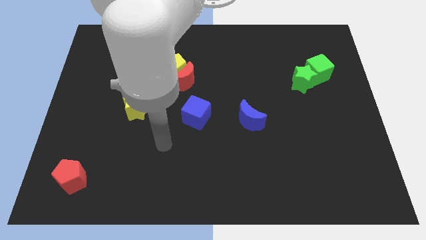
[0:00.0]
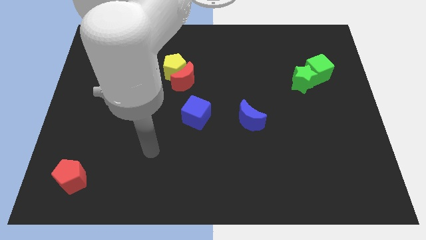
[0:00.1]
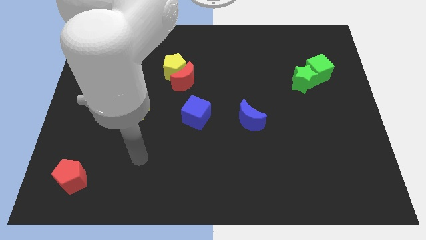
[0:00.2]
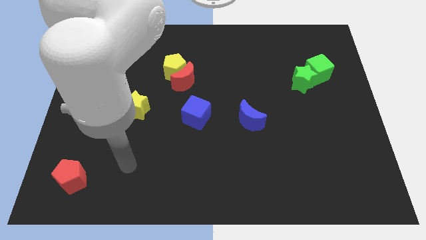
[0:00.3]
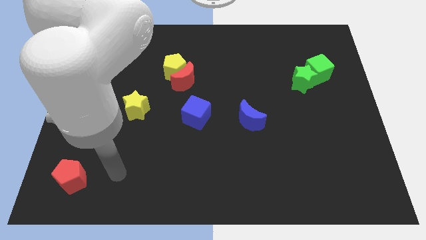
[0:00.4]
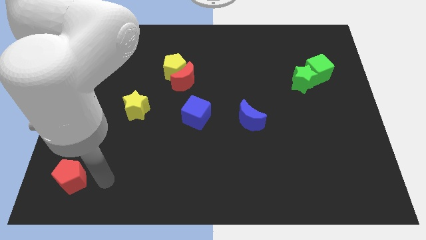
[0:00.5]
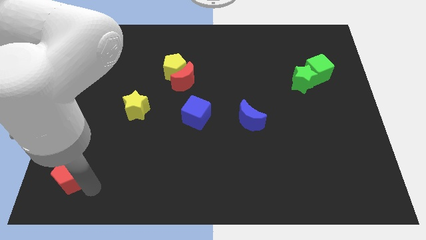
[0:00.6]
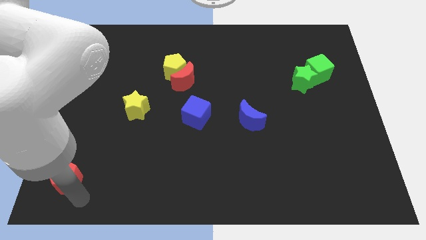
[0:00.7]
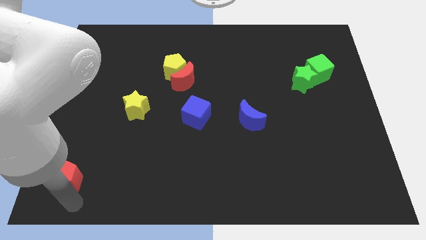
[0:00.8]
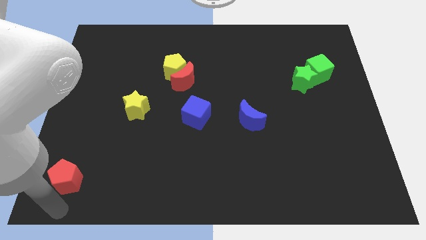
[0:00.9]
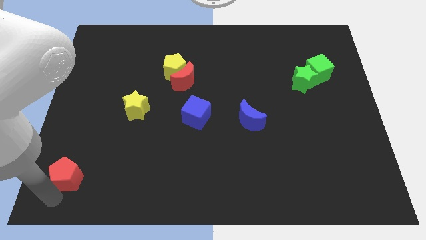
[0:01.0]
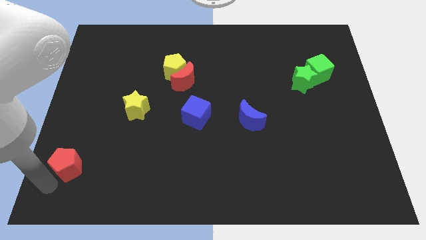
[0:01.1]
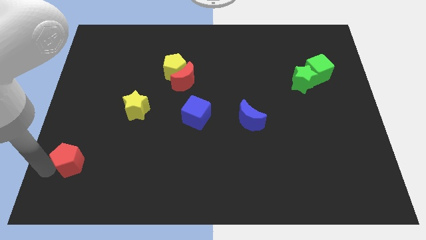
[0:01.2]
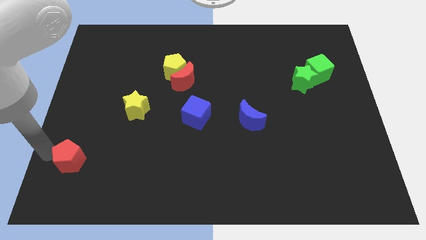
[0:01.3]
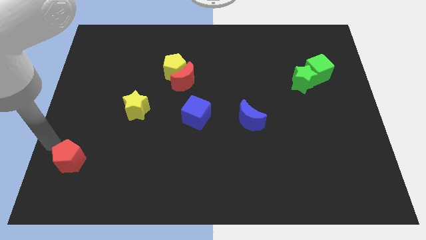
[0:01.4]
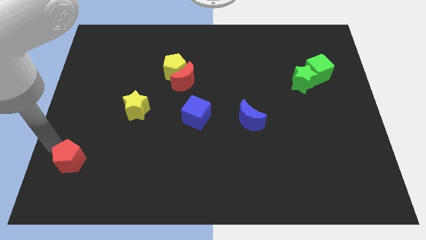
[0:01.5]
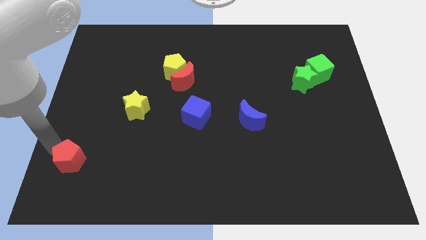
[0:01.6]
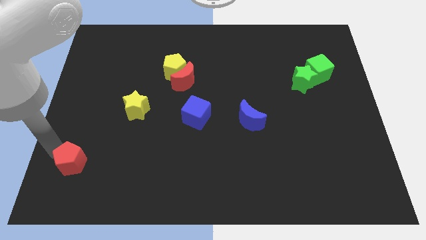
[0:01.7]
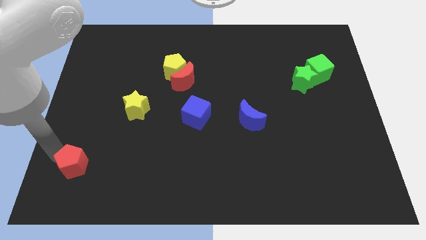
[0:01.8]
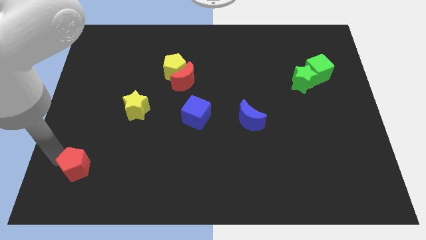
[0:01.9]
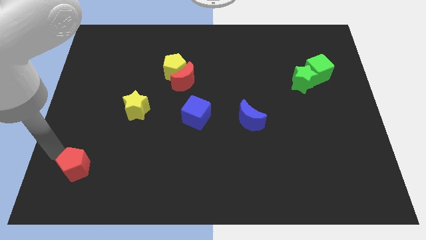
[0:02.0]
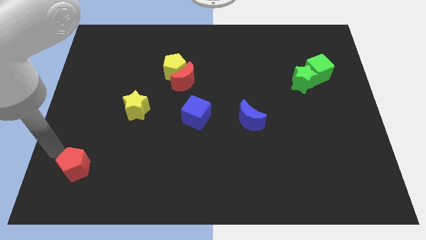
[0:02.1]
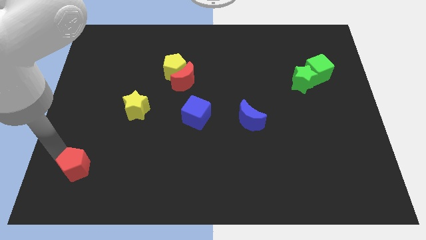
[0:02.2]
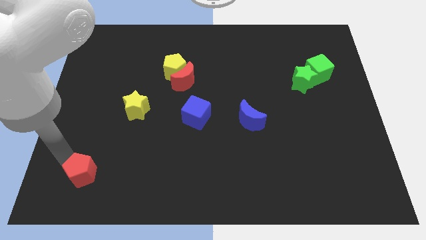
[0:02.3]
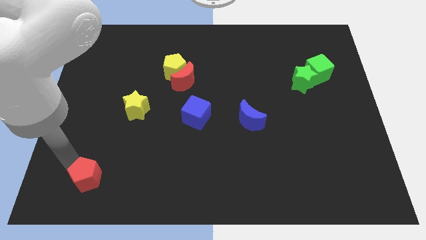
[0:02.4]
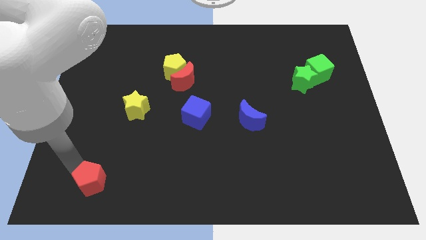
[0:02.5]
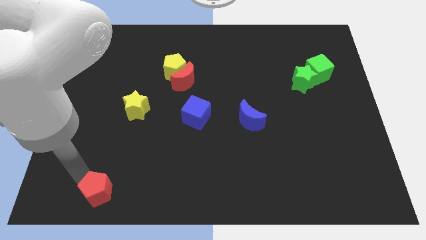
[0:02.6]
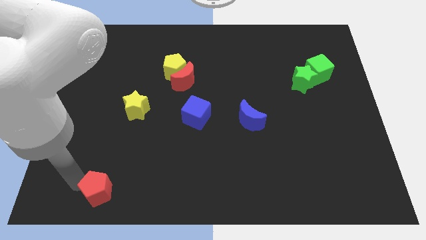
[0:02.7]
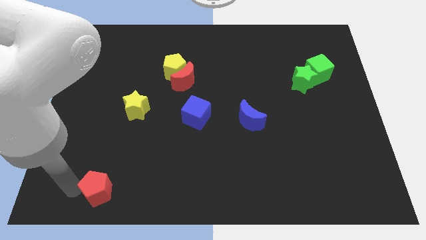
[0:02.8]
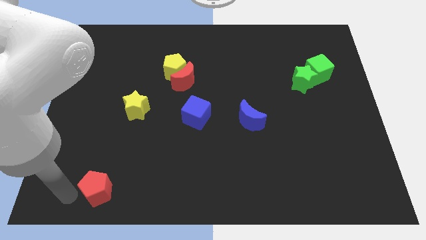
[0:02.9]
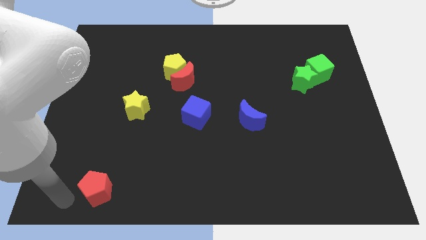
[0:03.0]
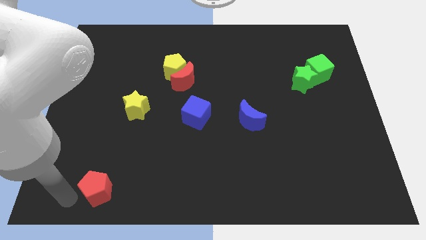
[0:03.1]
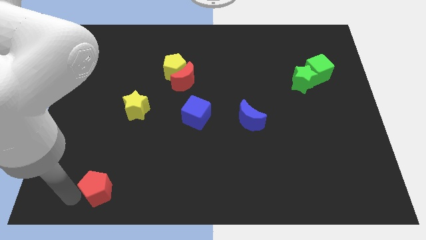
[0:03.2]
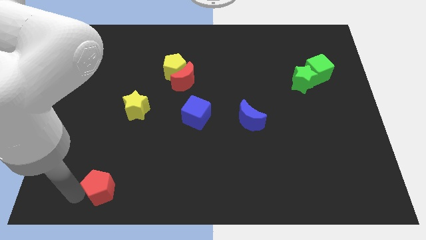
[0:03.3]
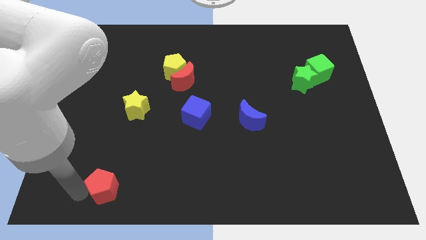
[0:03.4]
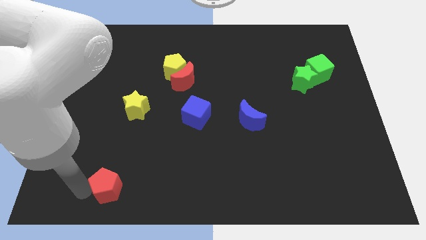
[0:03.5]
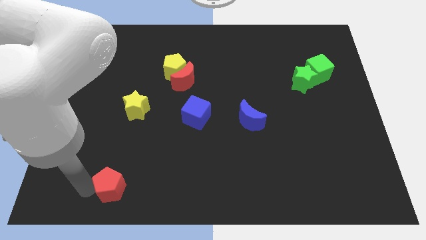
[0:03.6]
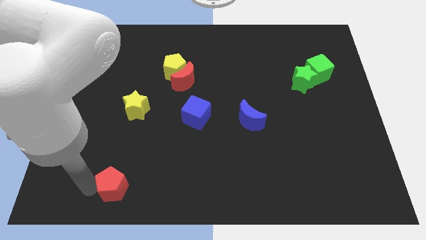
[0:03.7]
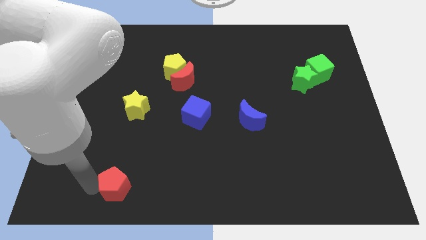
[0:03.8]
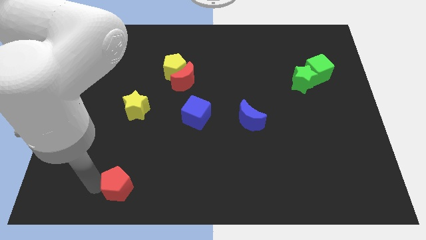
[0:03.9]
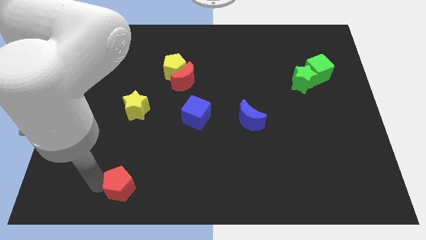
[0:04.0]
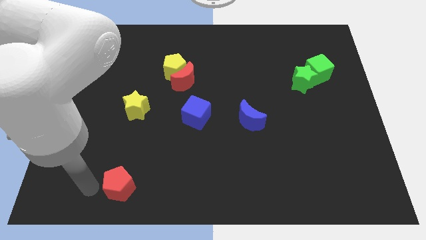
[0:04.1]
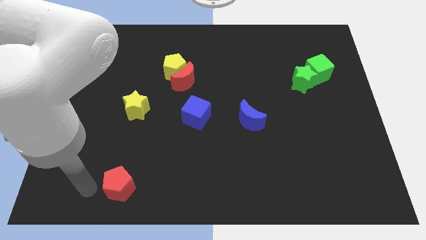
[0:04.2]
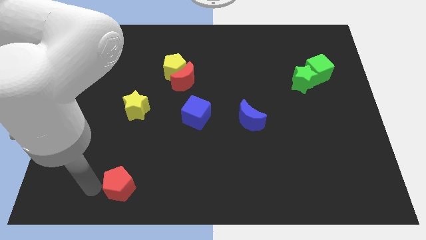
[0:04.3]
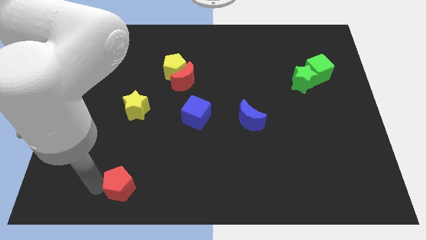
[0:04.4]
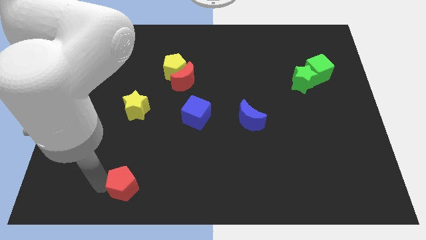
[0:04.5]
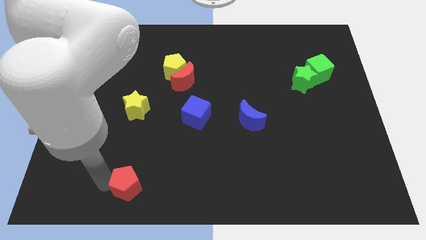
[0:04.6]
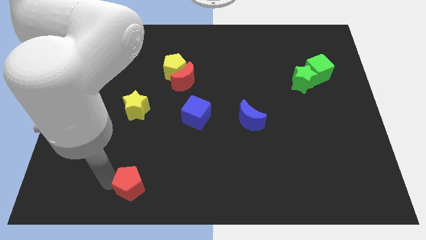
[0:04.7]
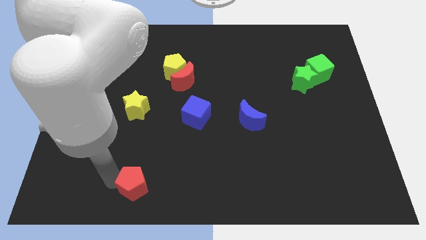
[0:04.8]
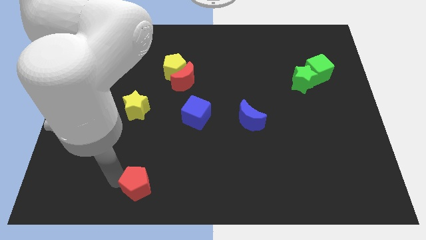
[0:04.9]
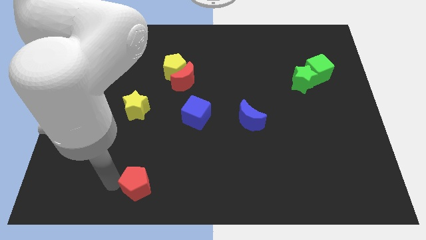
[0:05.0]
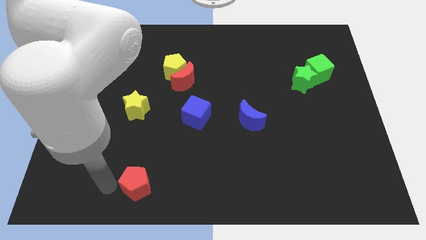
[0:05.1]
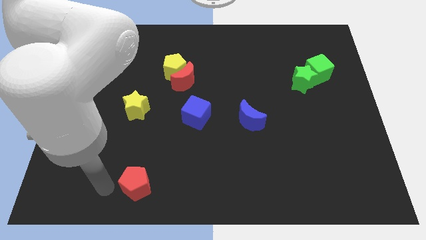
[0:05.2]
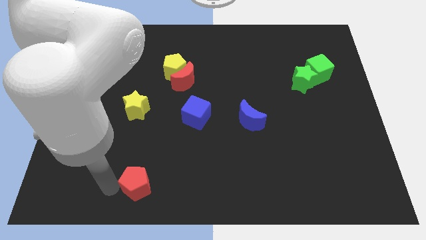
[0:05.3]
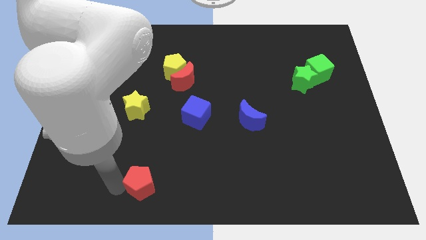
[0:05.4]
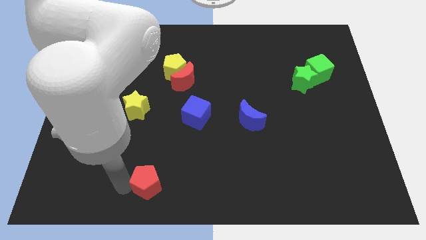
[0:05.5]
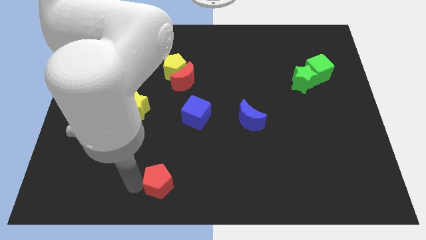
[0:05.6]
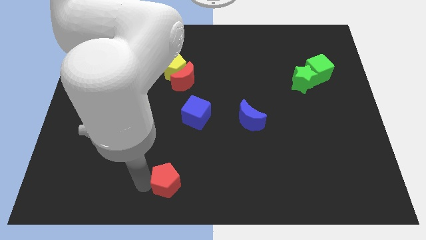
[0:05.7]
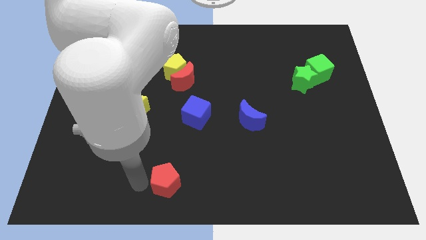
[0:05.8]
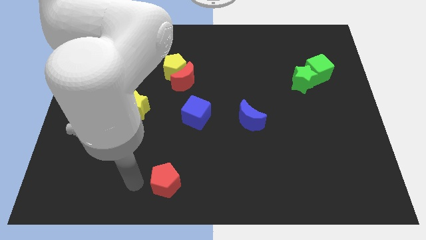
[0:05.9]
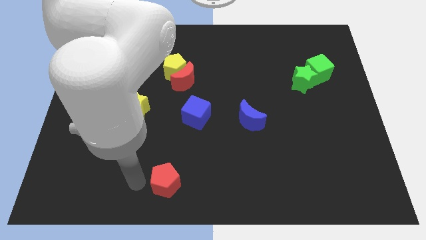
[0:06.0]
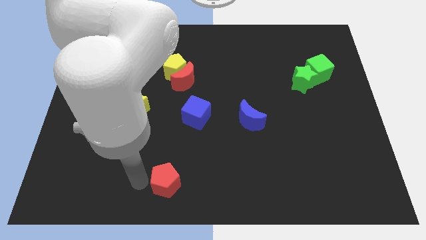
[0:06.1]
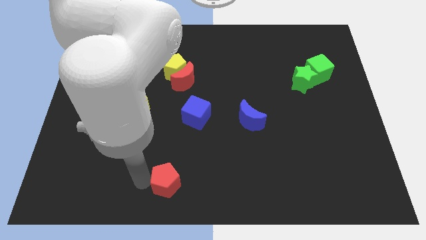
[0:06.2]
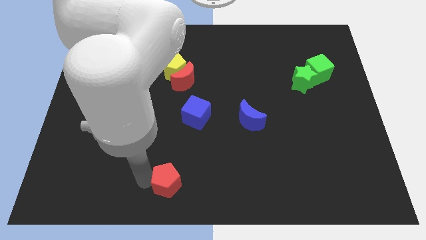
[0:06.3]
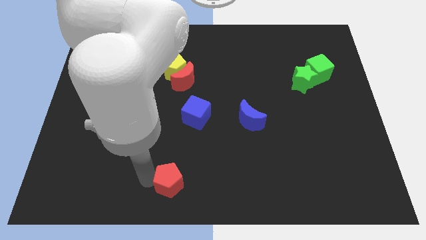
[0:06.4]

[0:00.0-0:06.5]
move the red pentagon to the right

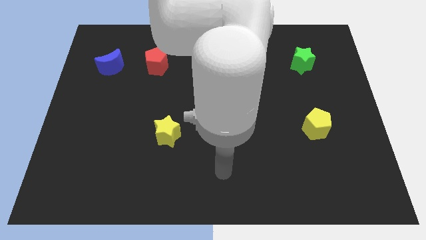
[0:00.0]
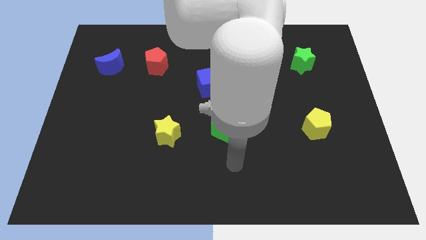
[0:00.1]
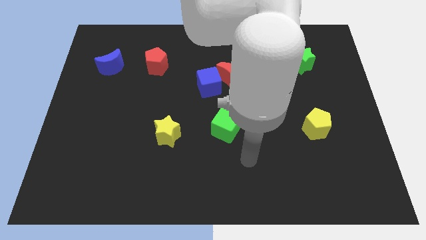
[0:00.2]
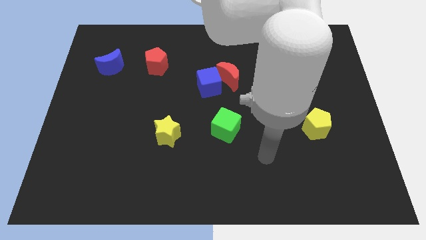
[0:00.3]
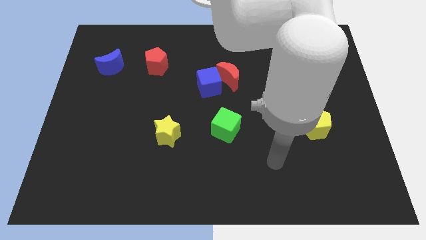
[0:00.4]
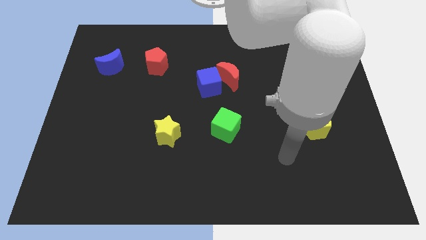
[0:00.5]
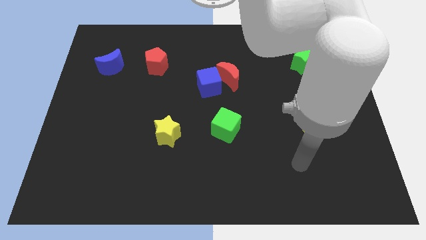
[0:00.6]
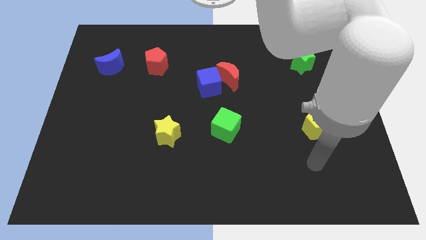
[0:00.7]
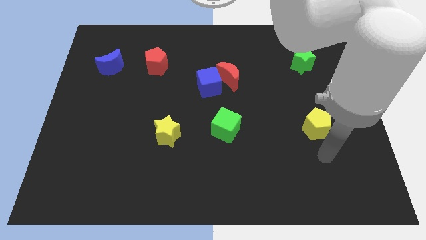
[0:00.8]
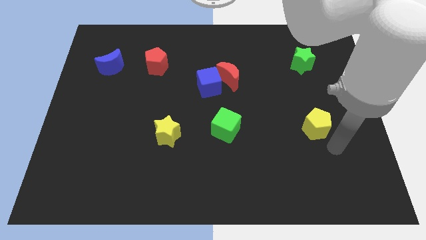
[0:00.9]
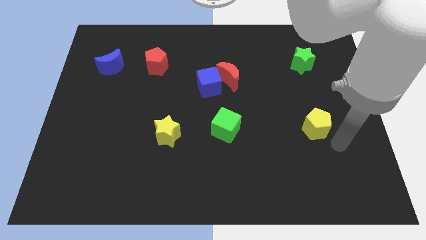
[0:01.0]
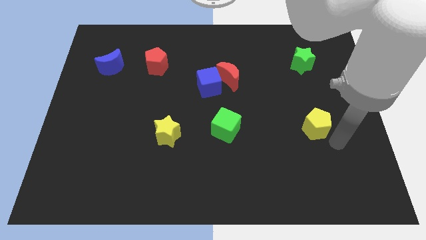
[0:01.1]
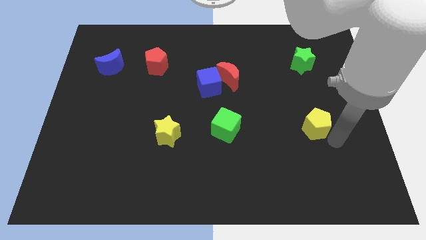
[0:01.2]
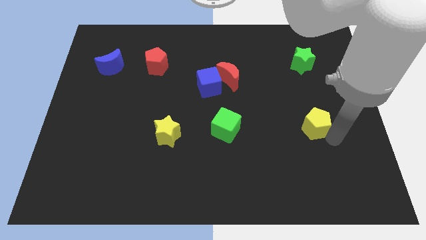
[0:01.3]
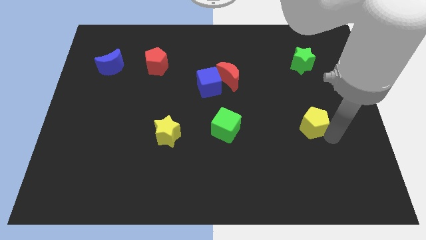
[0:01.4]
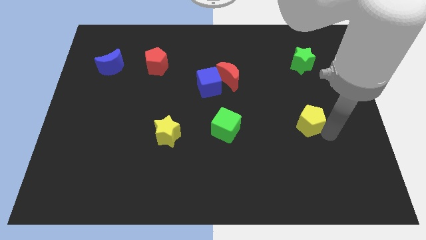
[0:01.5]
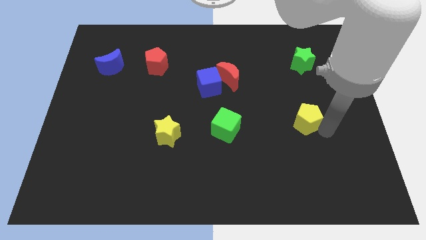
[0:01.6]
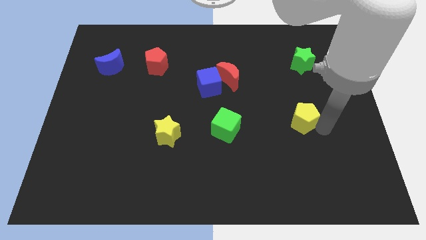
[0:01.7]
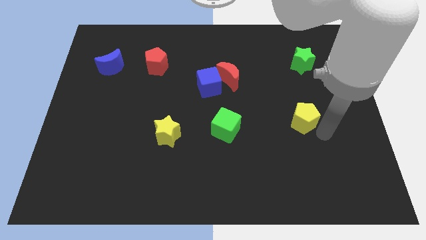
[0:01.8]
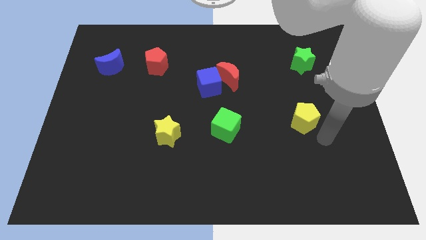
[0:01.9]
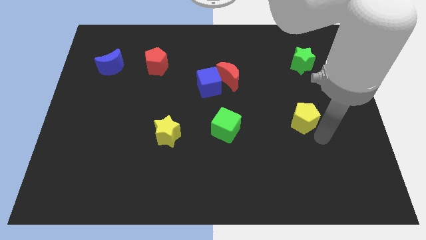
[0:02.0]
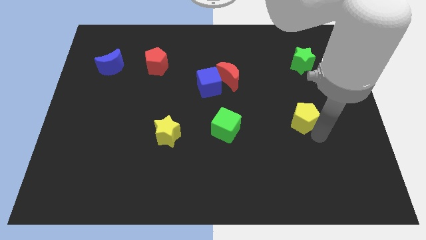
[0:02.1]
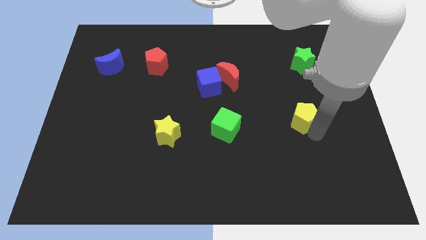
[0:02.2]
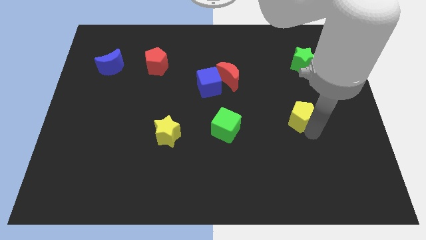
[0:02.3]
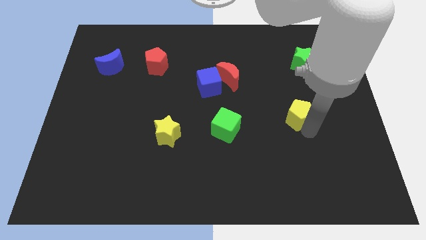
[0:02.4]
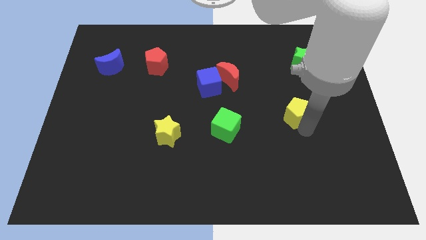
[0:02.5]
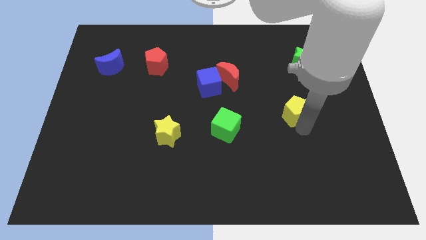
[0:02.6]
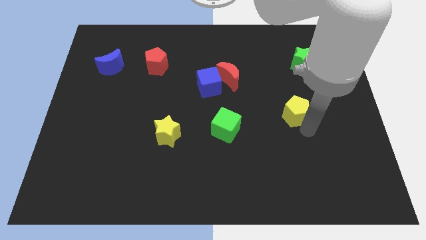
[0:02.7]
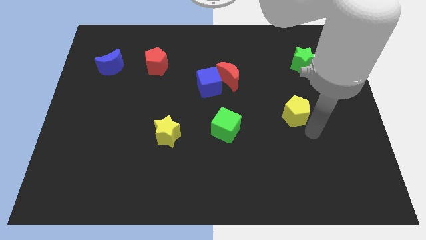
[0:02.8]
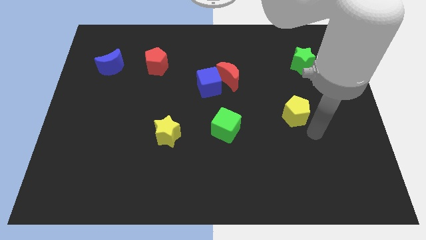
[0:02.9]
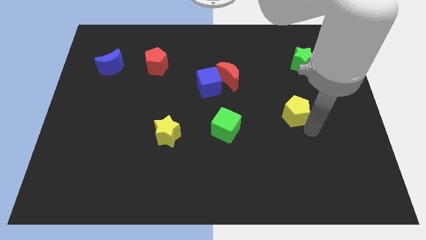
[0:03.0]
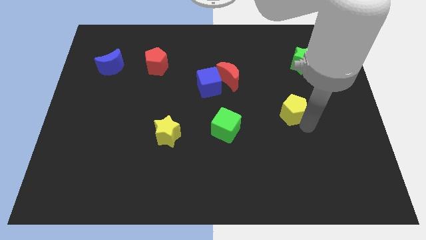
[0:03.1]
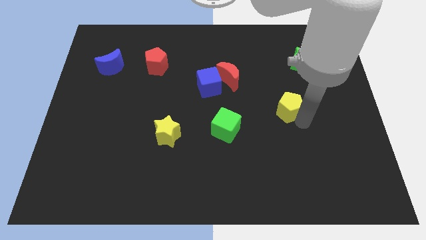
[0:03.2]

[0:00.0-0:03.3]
move the yellow pentagon diagonally upwards and to the left slightly
